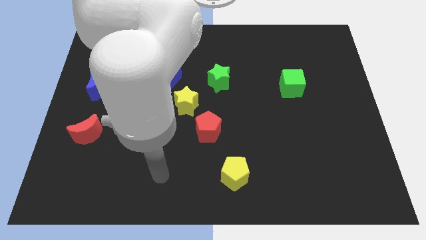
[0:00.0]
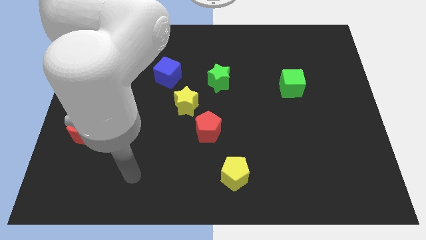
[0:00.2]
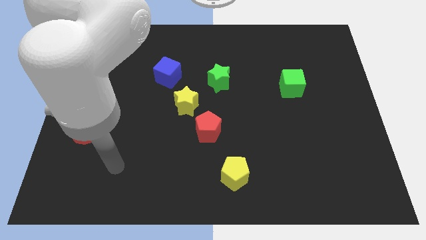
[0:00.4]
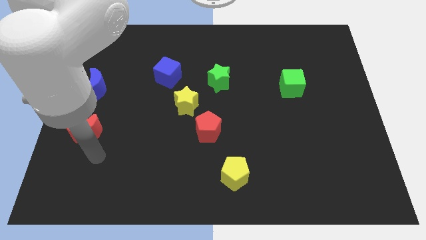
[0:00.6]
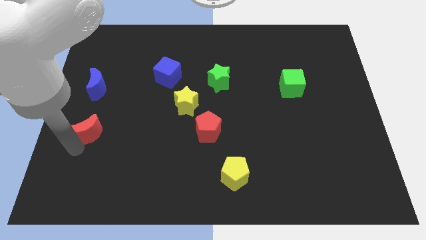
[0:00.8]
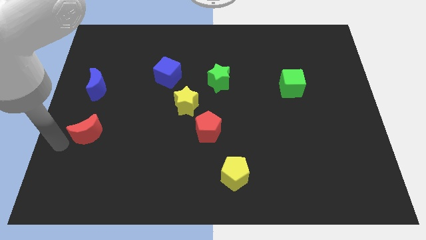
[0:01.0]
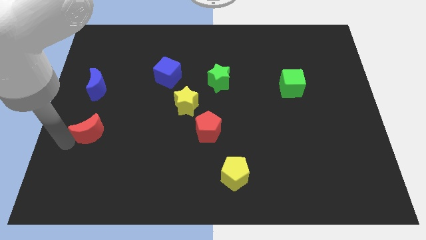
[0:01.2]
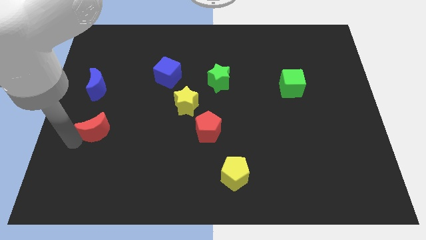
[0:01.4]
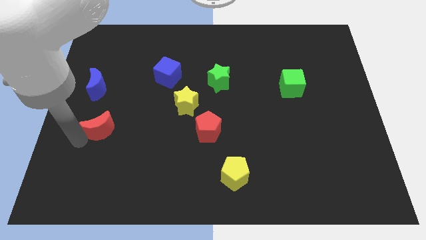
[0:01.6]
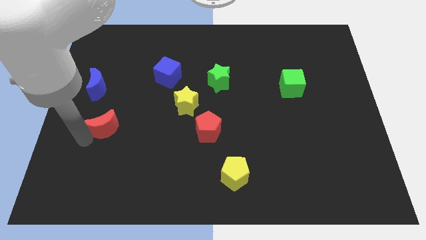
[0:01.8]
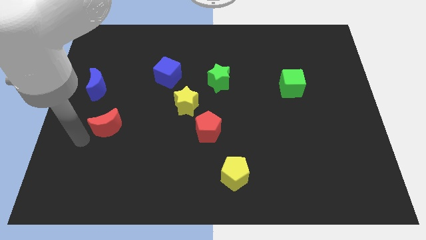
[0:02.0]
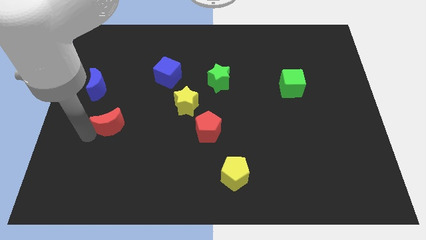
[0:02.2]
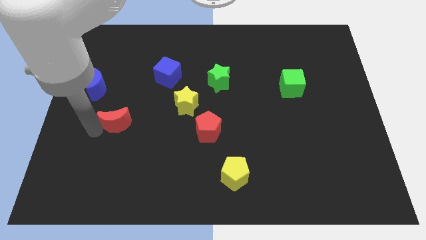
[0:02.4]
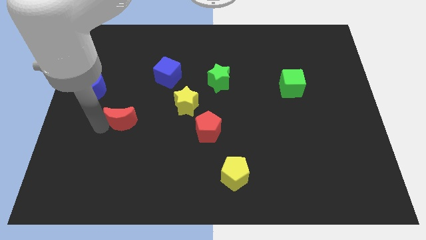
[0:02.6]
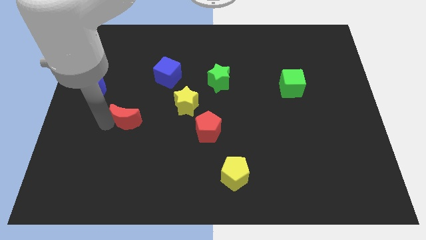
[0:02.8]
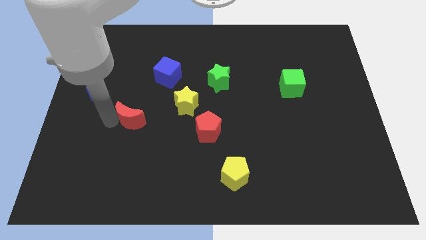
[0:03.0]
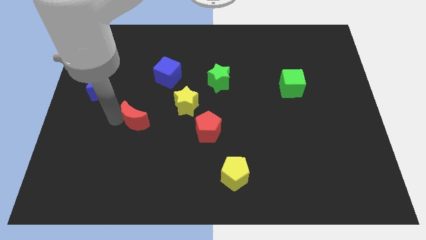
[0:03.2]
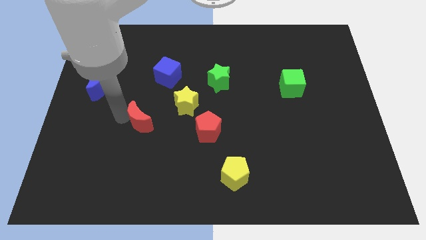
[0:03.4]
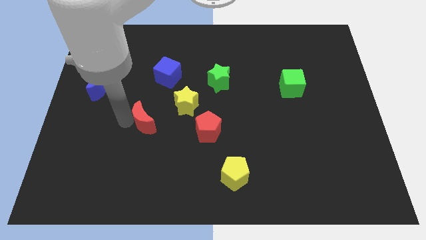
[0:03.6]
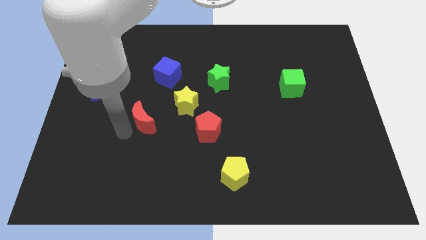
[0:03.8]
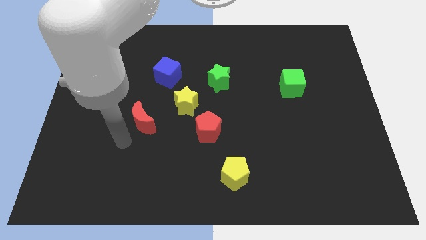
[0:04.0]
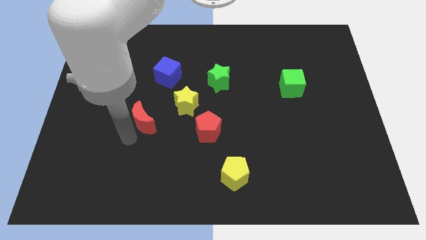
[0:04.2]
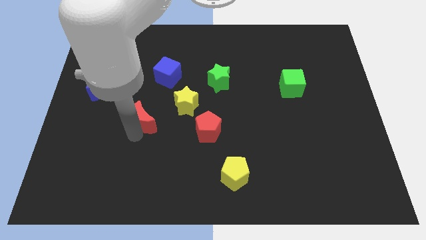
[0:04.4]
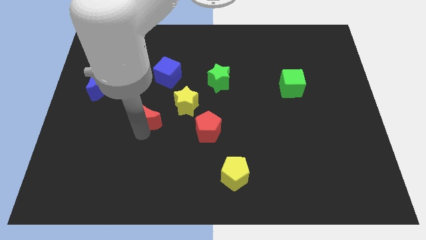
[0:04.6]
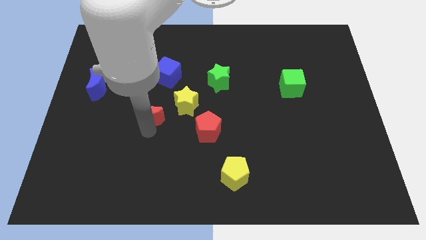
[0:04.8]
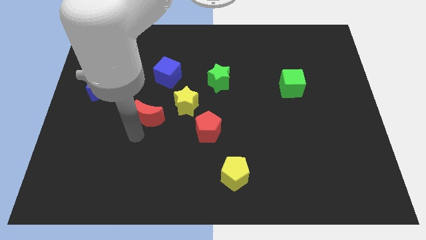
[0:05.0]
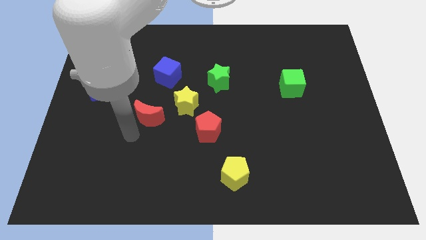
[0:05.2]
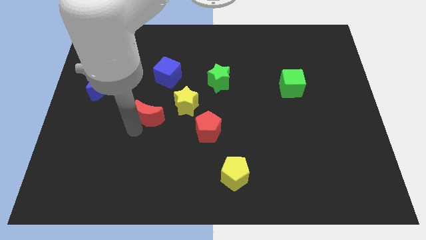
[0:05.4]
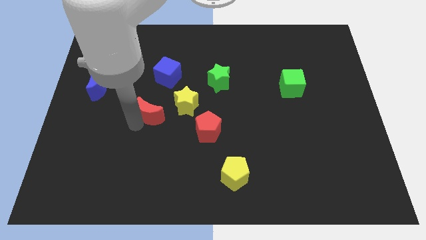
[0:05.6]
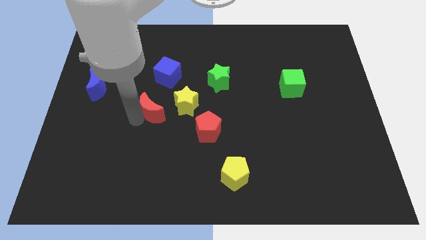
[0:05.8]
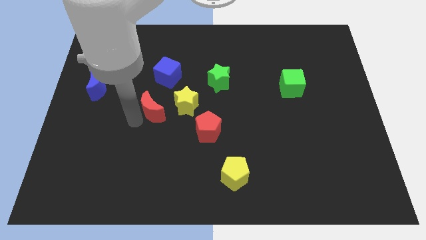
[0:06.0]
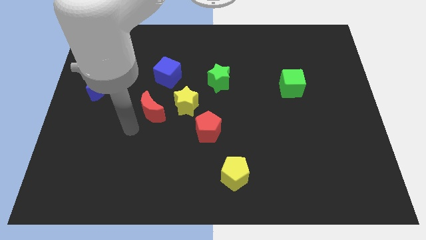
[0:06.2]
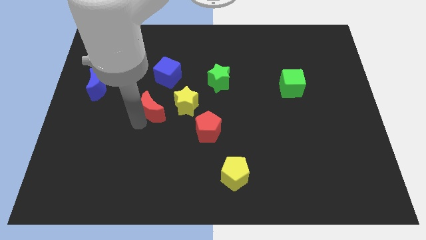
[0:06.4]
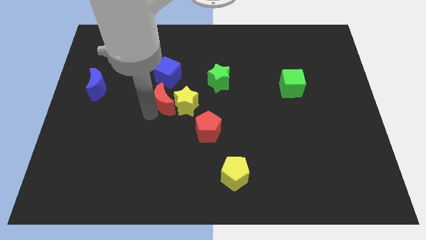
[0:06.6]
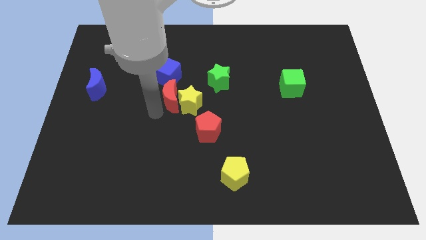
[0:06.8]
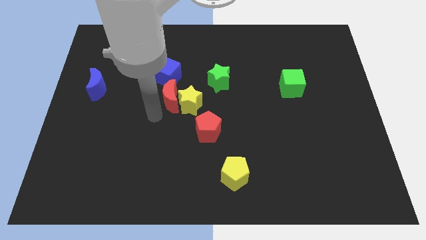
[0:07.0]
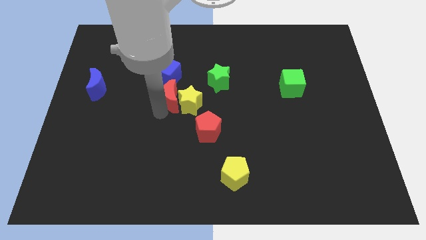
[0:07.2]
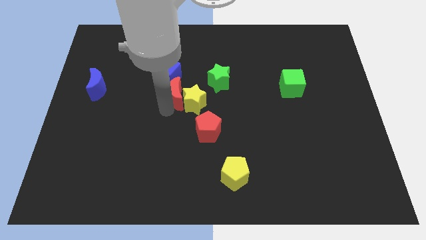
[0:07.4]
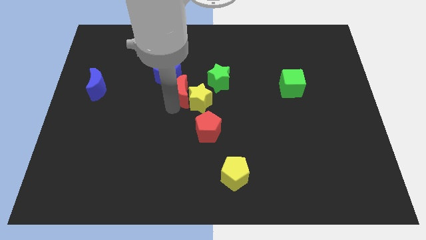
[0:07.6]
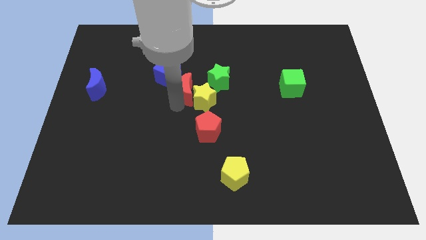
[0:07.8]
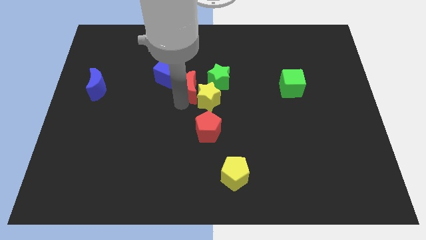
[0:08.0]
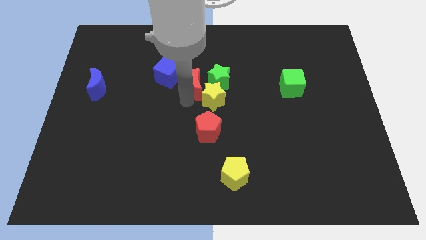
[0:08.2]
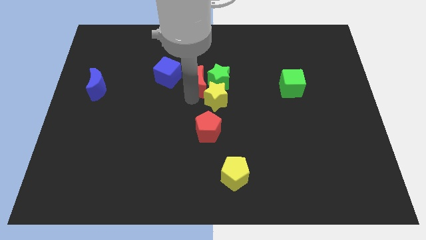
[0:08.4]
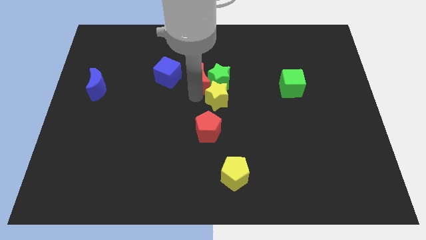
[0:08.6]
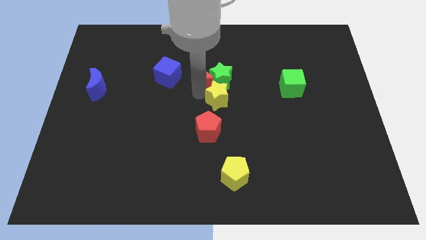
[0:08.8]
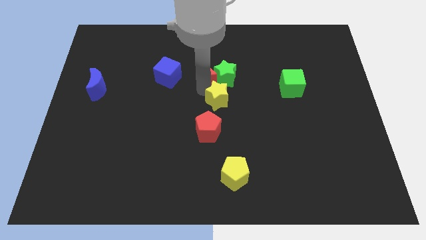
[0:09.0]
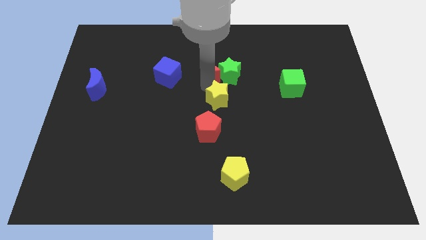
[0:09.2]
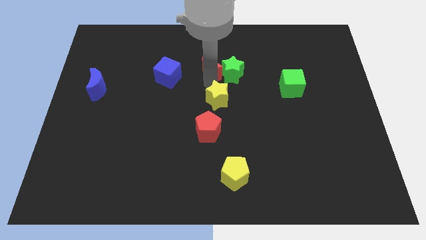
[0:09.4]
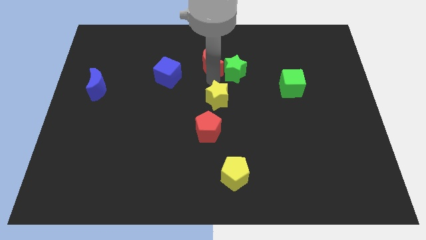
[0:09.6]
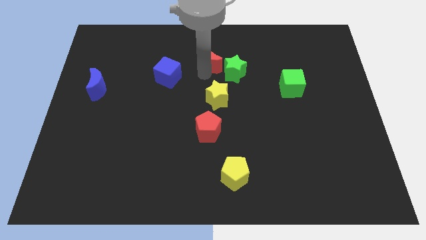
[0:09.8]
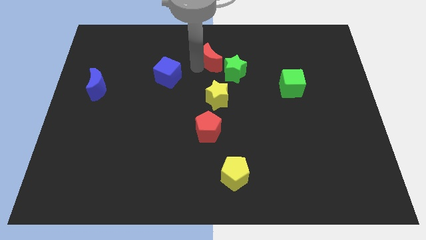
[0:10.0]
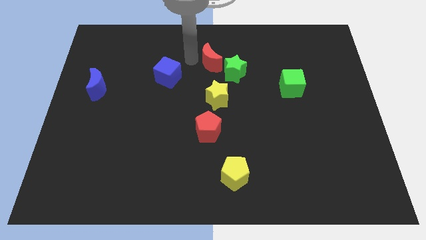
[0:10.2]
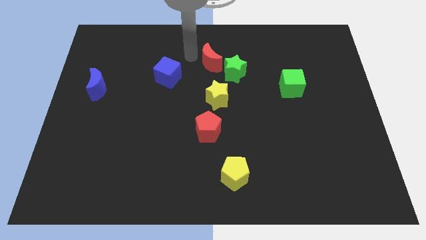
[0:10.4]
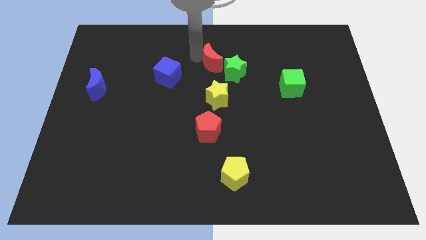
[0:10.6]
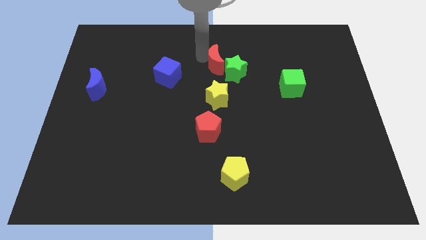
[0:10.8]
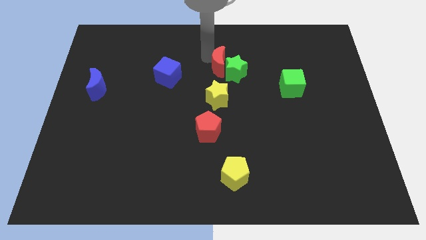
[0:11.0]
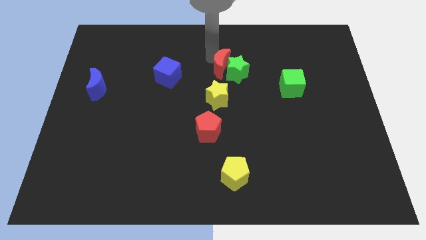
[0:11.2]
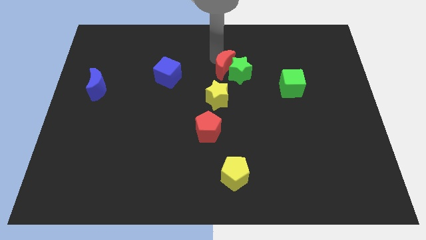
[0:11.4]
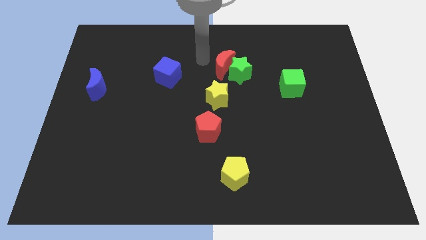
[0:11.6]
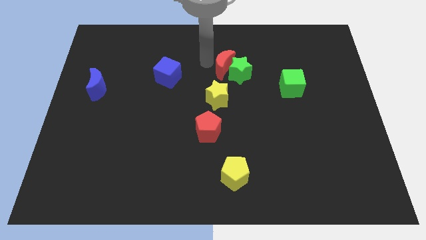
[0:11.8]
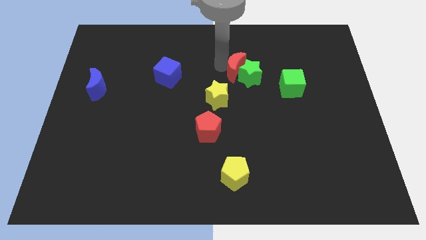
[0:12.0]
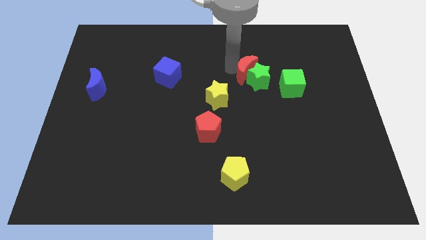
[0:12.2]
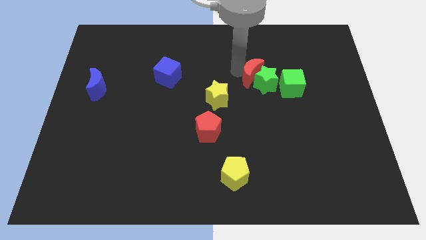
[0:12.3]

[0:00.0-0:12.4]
push the red moon to the top left side of the green cube

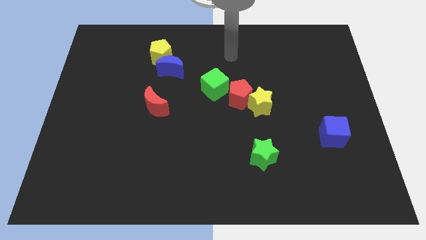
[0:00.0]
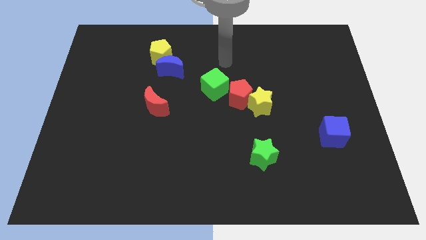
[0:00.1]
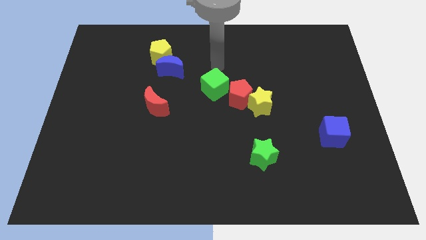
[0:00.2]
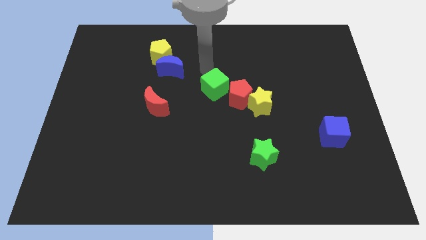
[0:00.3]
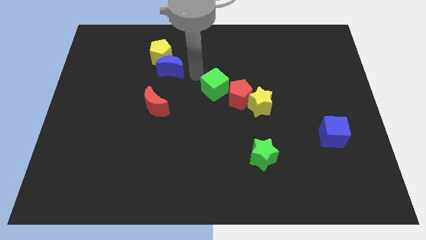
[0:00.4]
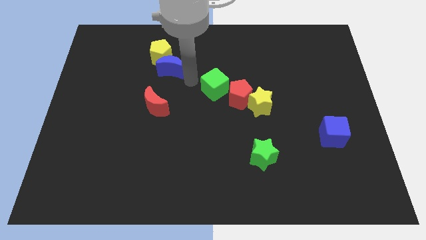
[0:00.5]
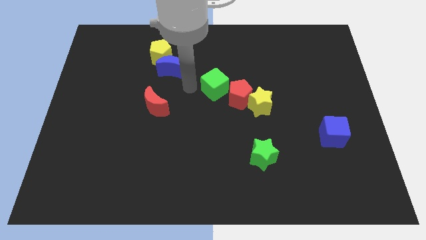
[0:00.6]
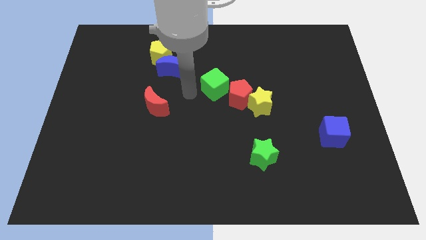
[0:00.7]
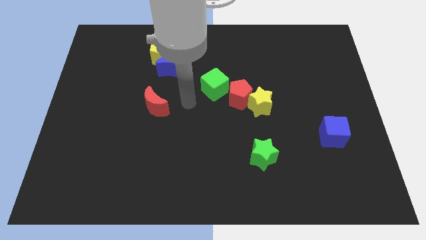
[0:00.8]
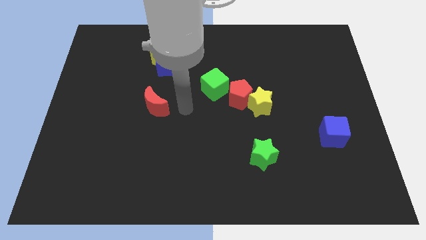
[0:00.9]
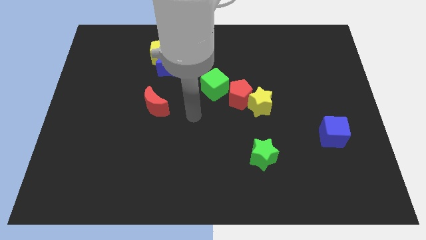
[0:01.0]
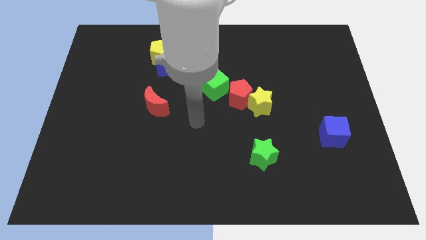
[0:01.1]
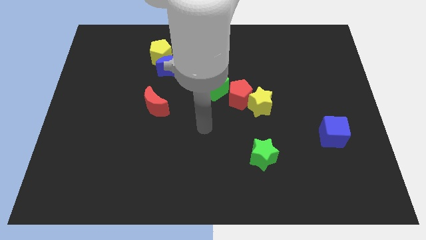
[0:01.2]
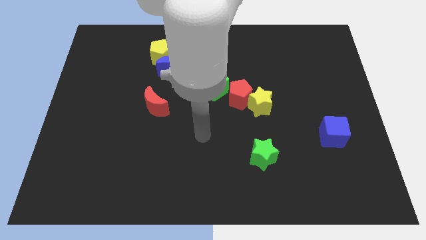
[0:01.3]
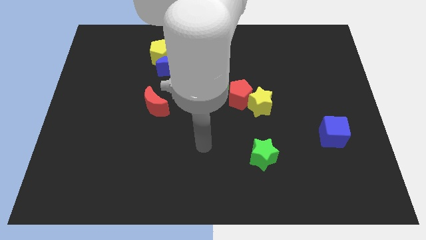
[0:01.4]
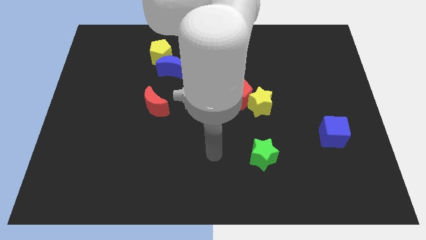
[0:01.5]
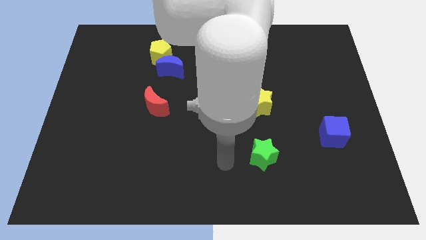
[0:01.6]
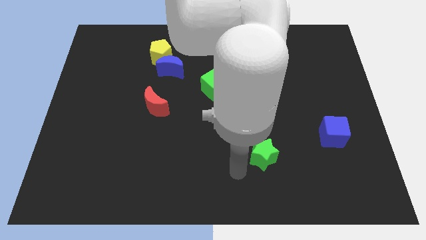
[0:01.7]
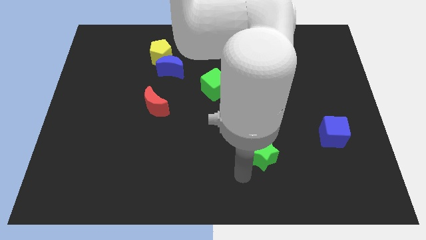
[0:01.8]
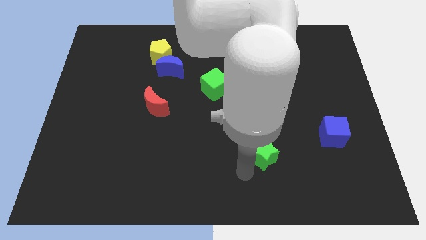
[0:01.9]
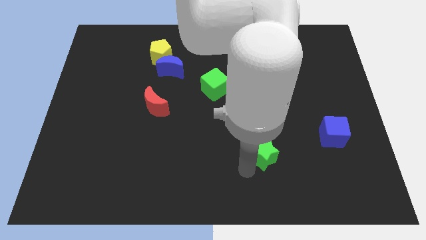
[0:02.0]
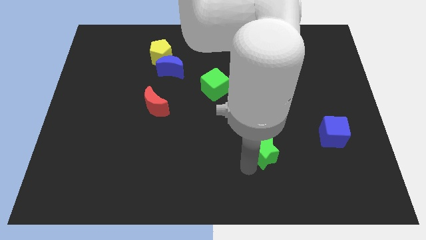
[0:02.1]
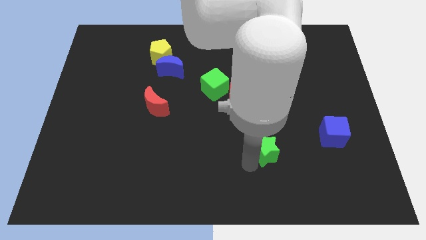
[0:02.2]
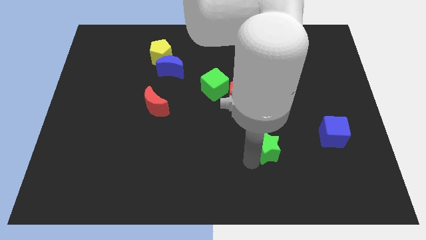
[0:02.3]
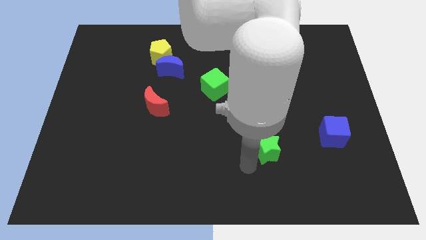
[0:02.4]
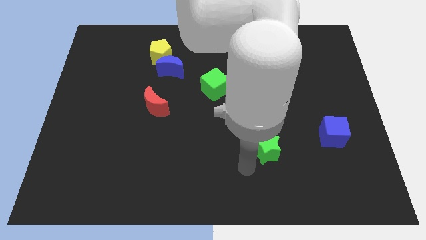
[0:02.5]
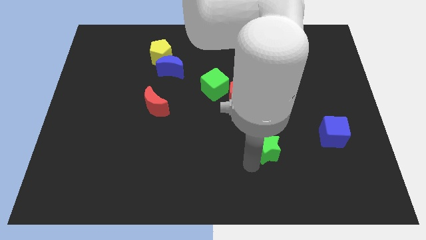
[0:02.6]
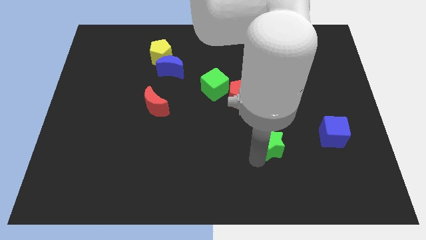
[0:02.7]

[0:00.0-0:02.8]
slide the green star left of the blue cube
